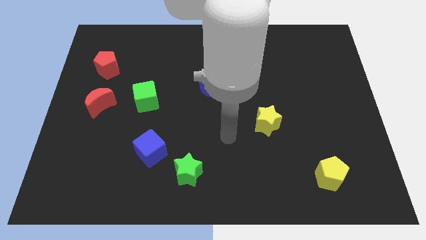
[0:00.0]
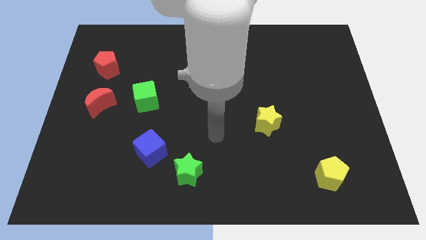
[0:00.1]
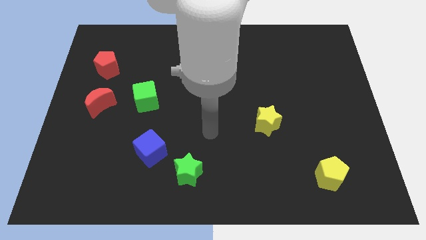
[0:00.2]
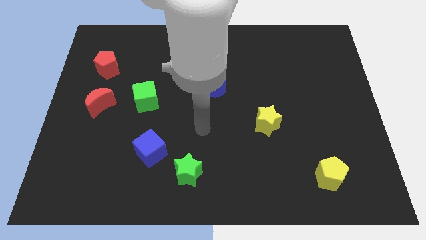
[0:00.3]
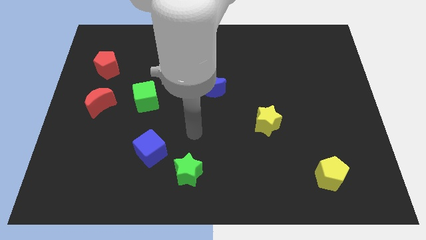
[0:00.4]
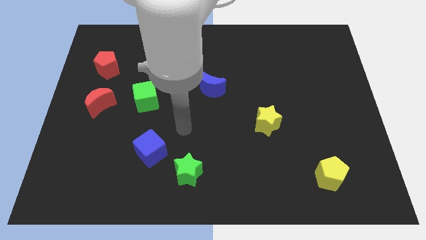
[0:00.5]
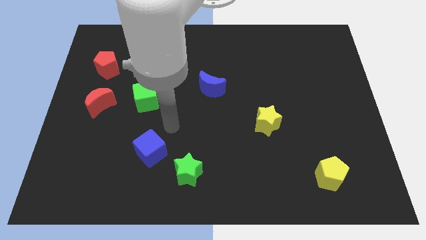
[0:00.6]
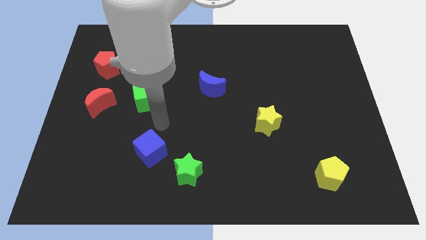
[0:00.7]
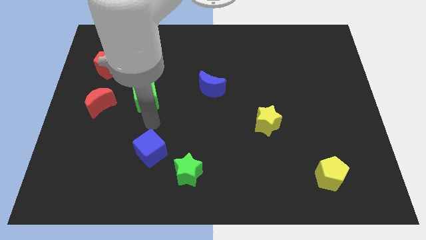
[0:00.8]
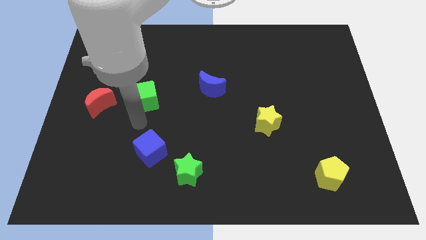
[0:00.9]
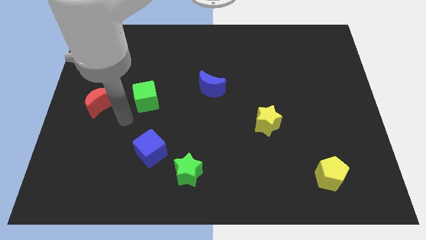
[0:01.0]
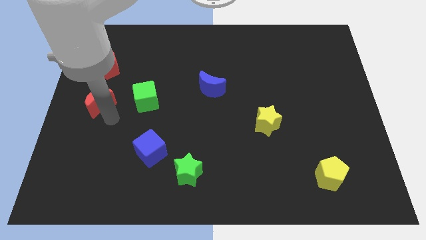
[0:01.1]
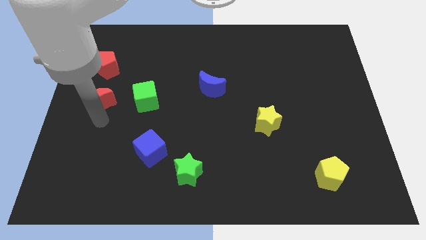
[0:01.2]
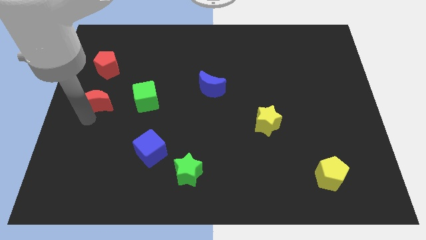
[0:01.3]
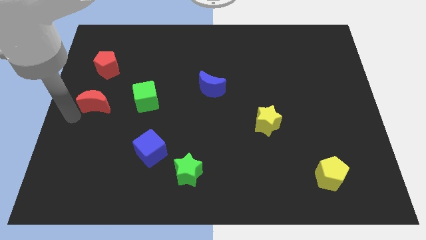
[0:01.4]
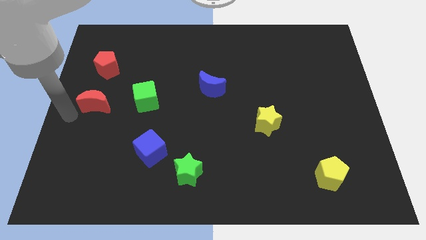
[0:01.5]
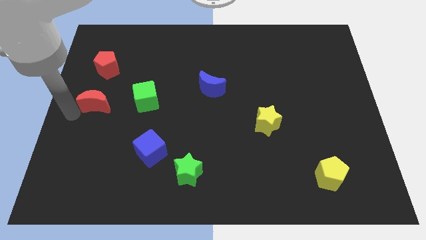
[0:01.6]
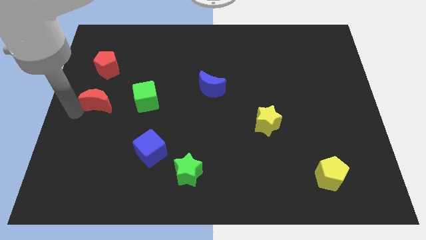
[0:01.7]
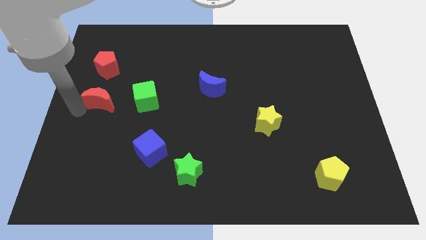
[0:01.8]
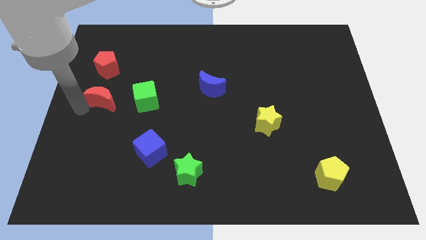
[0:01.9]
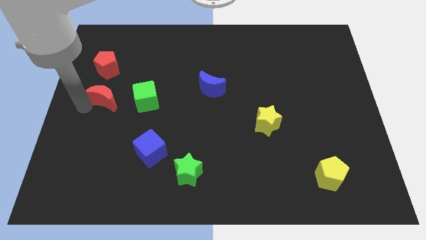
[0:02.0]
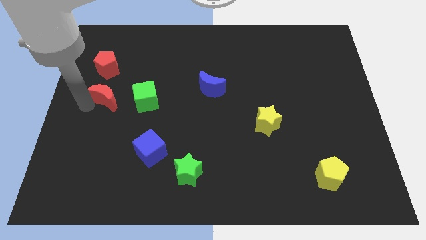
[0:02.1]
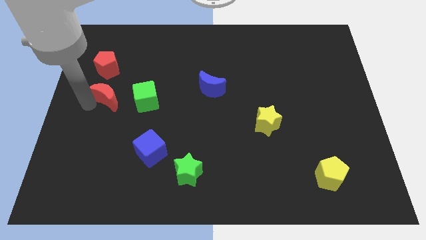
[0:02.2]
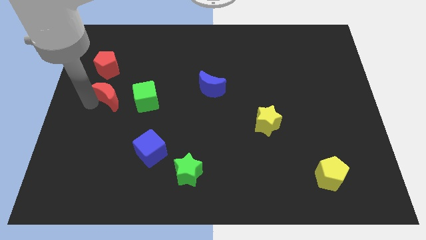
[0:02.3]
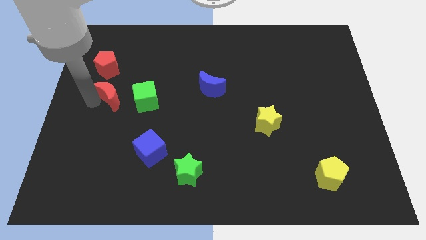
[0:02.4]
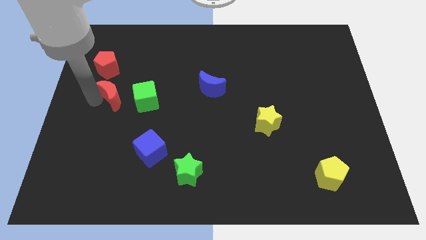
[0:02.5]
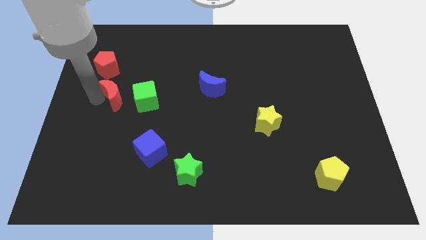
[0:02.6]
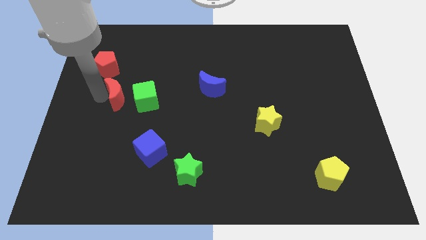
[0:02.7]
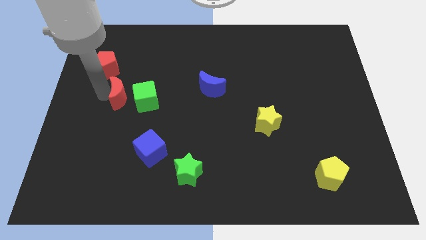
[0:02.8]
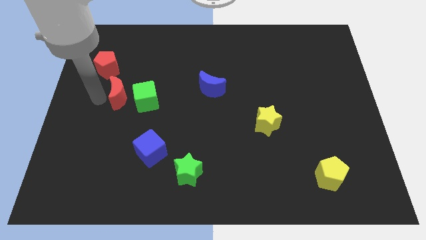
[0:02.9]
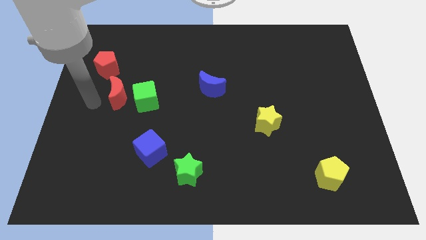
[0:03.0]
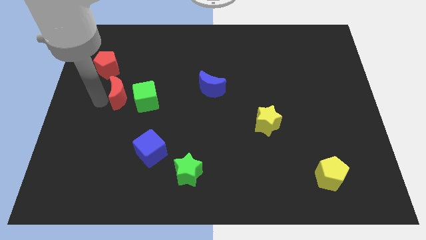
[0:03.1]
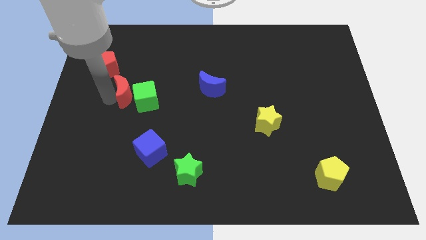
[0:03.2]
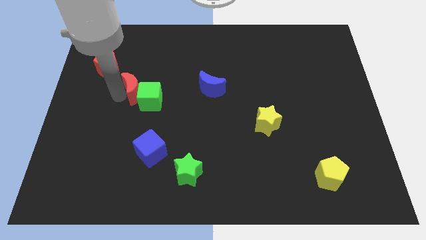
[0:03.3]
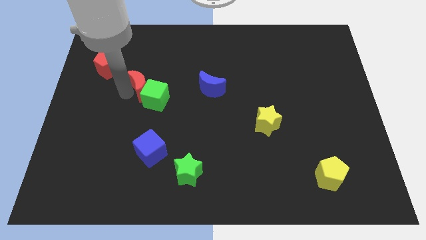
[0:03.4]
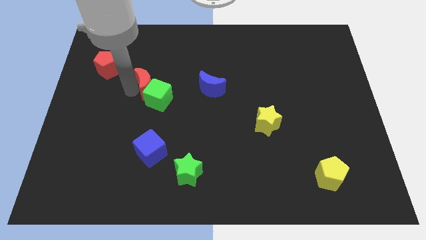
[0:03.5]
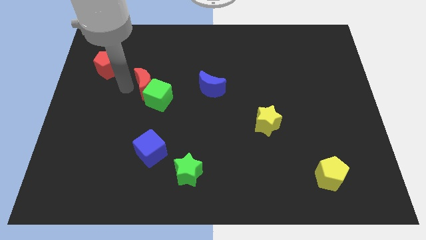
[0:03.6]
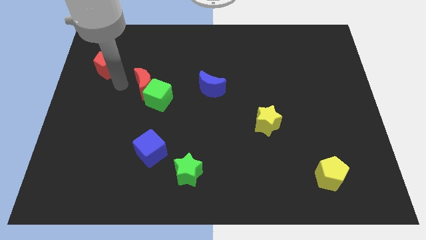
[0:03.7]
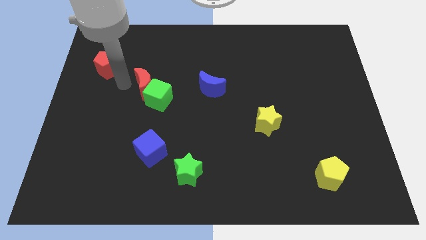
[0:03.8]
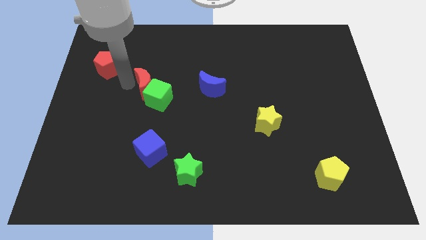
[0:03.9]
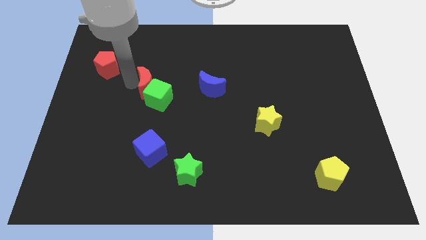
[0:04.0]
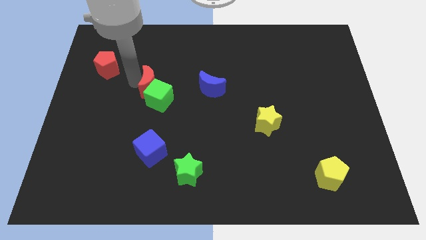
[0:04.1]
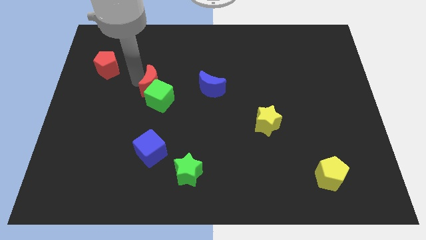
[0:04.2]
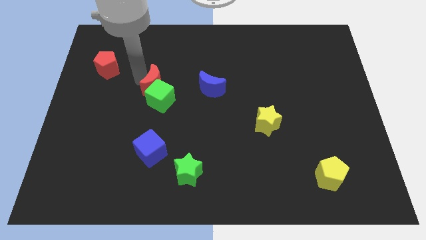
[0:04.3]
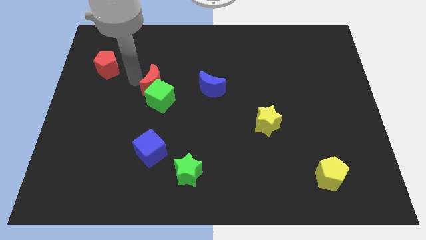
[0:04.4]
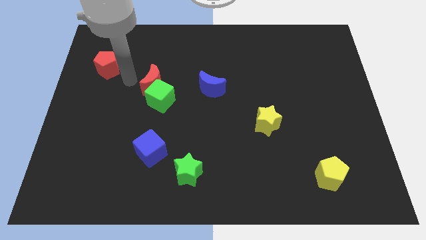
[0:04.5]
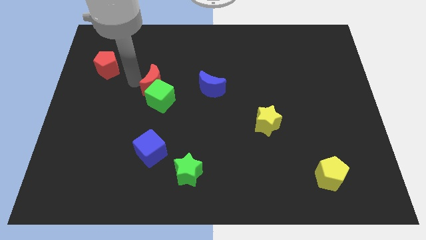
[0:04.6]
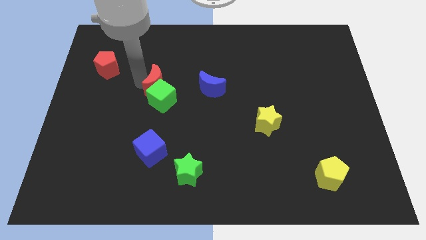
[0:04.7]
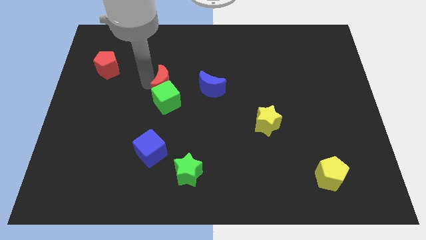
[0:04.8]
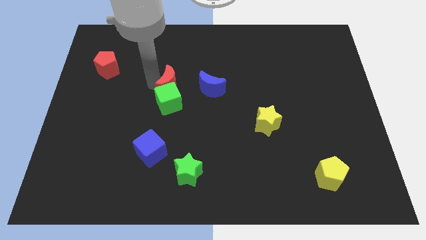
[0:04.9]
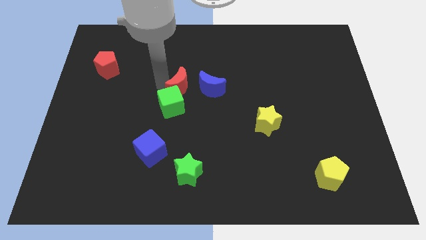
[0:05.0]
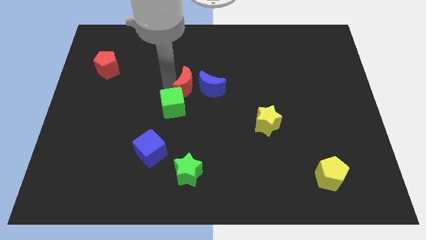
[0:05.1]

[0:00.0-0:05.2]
move the red moon to the blue moon

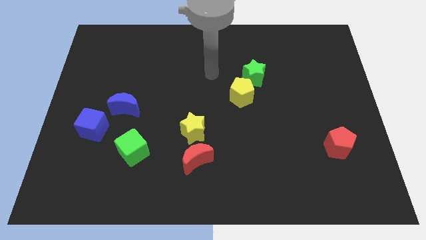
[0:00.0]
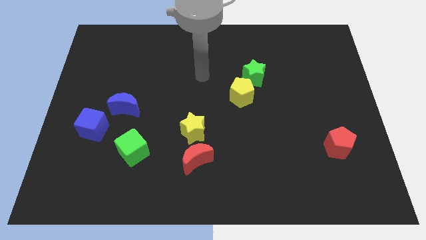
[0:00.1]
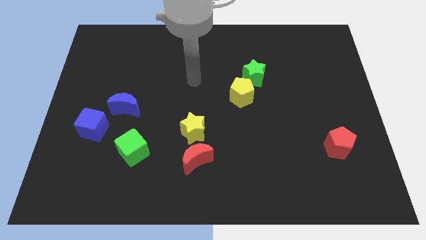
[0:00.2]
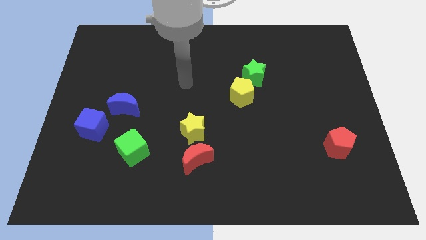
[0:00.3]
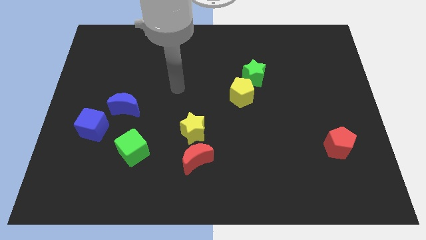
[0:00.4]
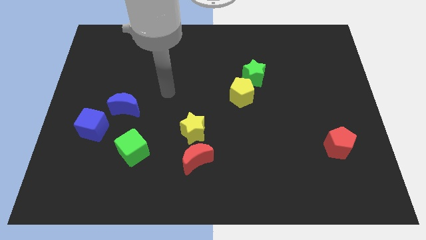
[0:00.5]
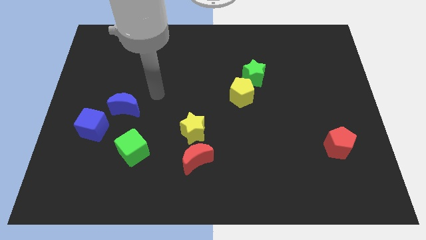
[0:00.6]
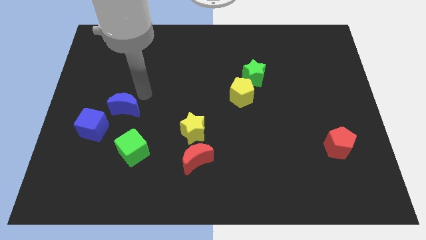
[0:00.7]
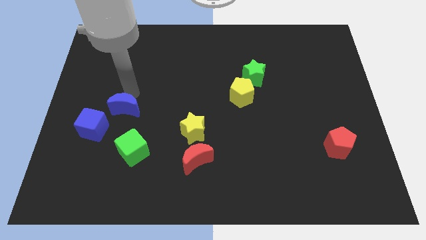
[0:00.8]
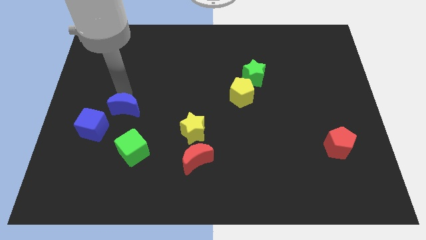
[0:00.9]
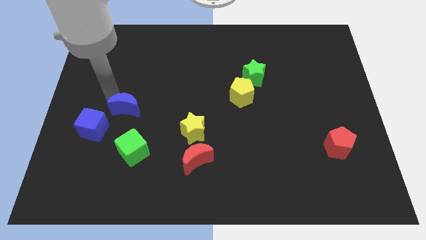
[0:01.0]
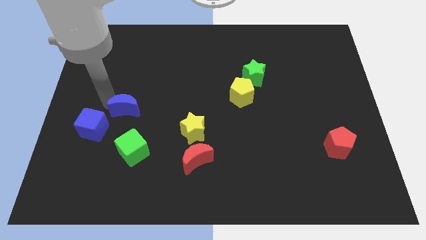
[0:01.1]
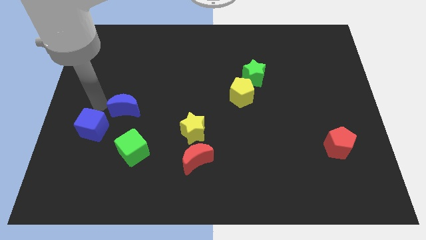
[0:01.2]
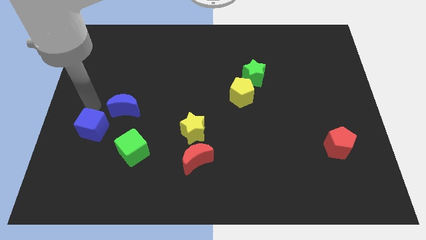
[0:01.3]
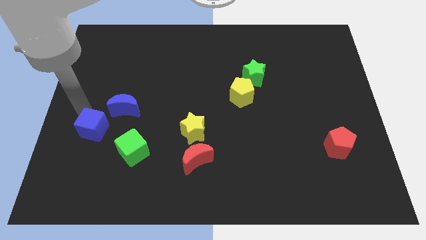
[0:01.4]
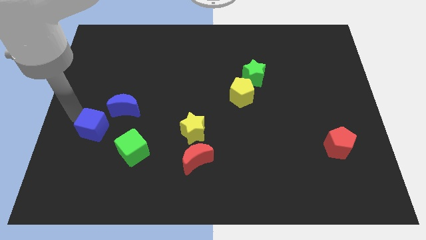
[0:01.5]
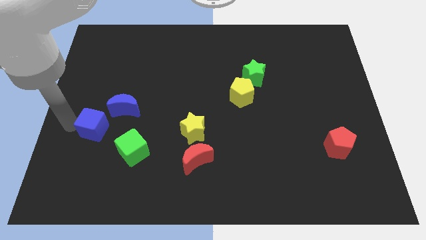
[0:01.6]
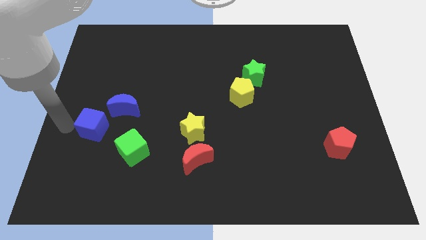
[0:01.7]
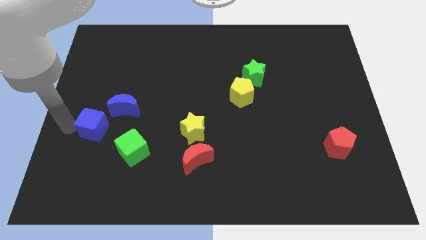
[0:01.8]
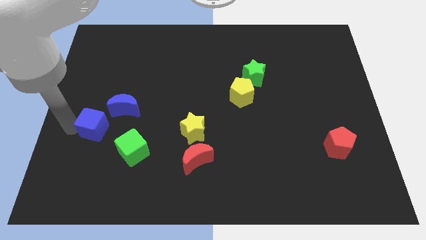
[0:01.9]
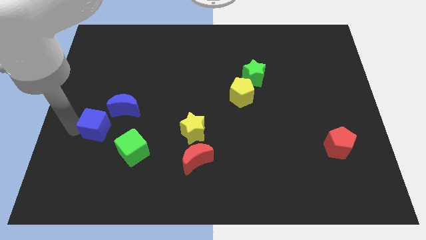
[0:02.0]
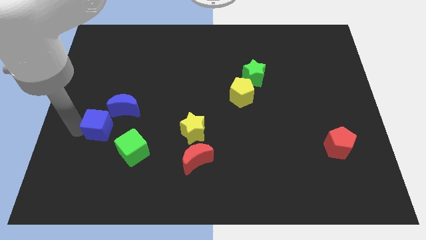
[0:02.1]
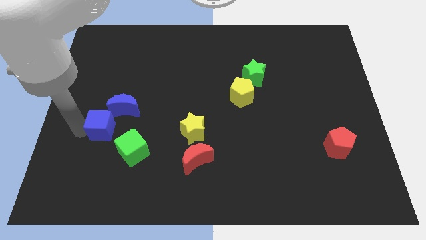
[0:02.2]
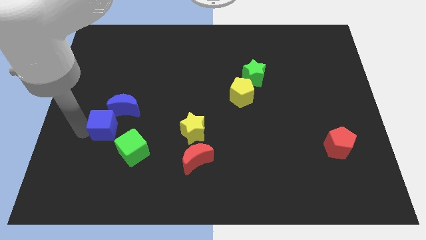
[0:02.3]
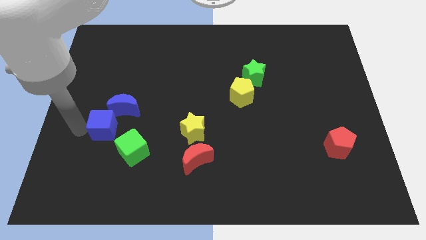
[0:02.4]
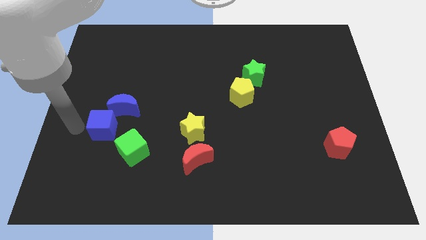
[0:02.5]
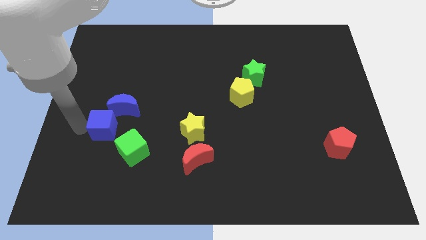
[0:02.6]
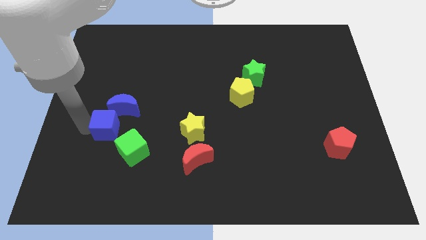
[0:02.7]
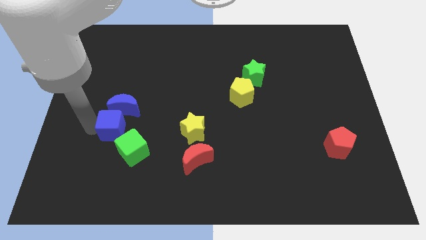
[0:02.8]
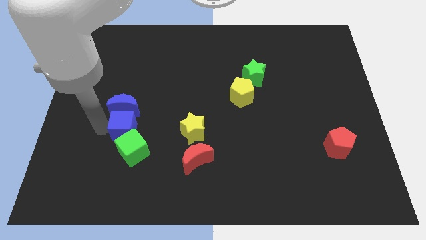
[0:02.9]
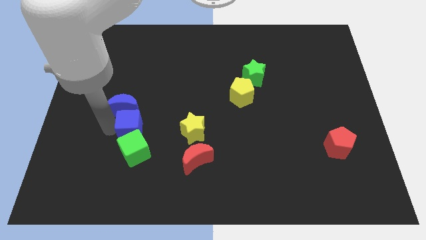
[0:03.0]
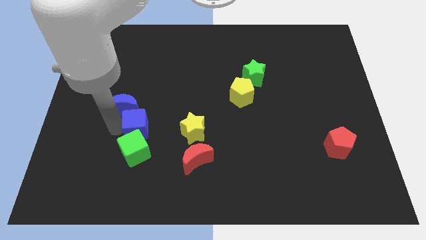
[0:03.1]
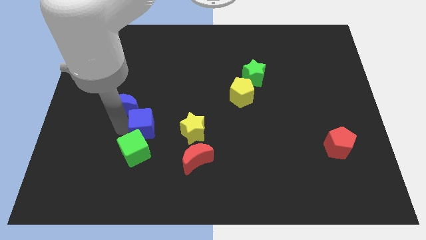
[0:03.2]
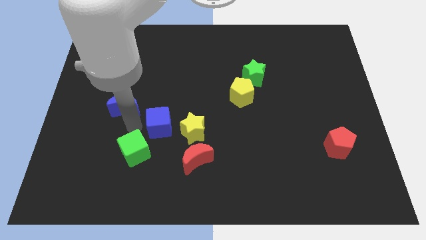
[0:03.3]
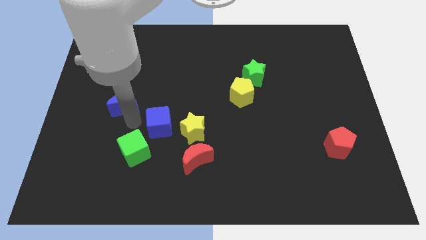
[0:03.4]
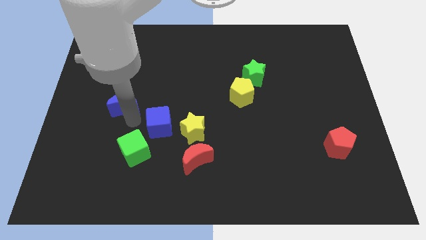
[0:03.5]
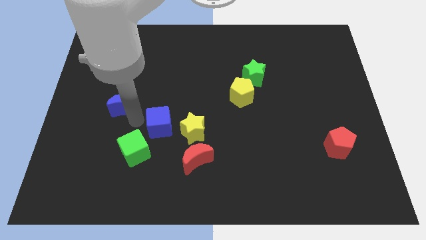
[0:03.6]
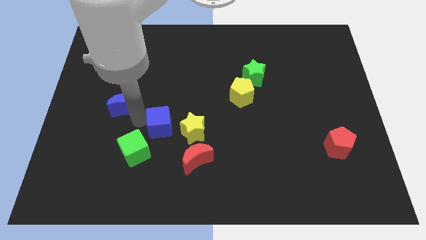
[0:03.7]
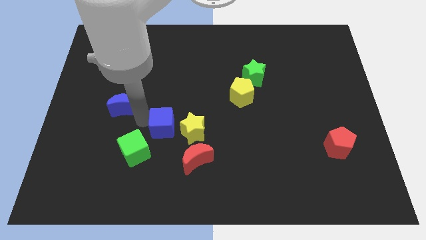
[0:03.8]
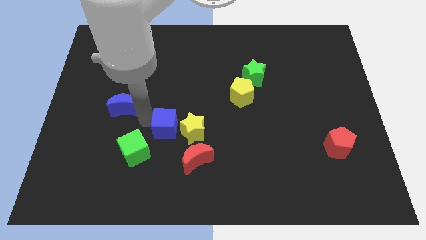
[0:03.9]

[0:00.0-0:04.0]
move the blue cube to the yellow star
